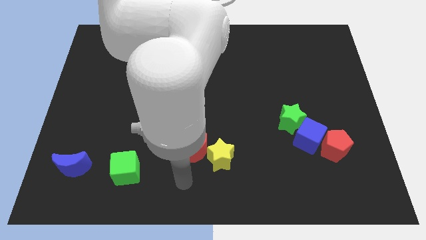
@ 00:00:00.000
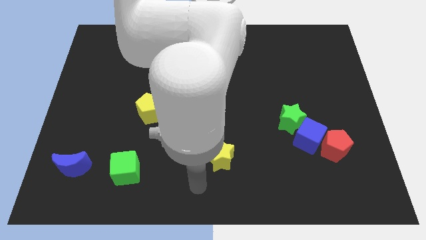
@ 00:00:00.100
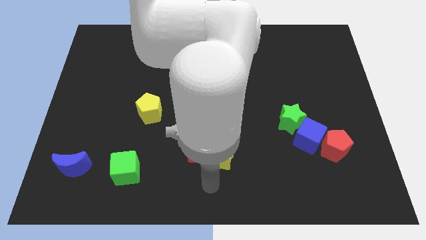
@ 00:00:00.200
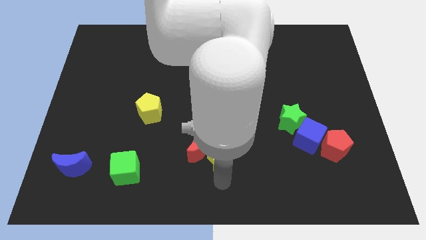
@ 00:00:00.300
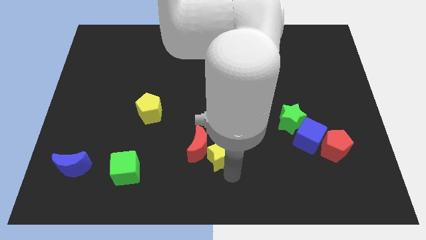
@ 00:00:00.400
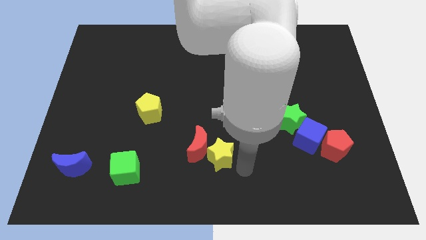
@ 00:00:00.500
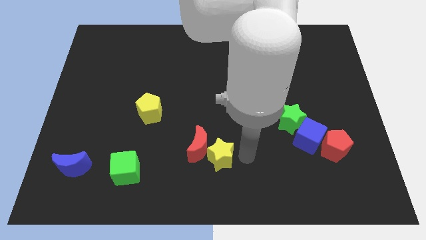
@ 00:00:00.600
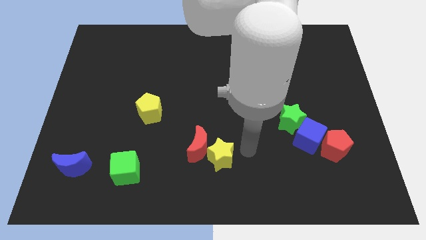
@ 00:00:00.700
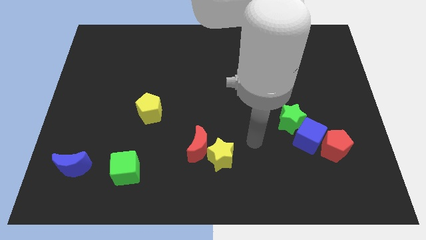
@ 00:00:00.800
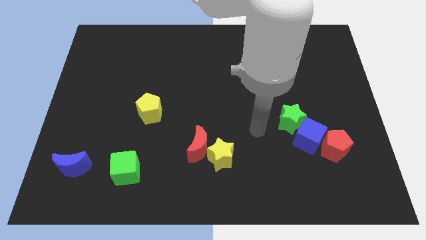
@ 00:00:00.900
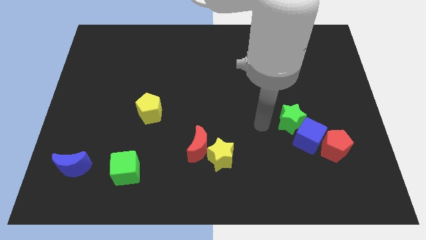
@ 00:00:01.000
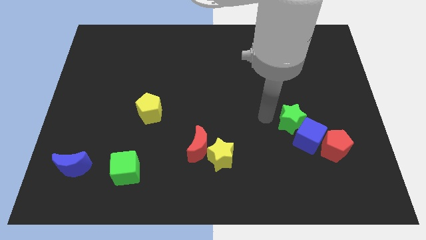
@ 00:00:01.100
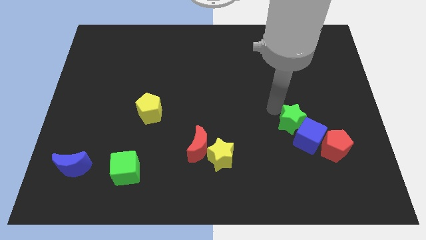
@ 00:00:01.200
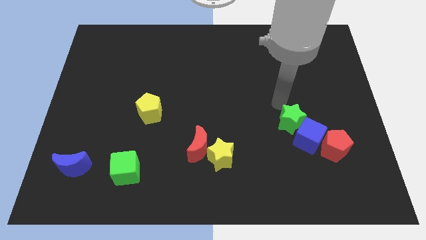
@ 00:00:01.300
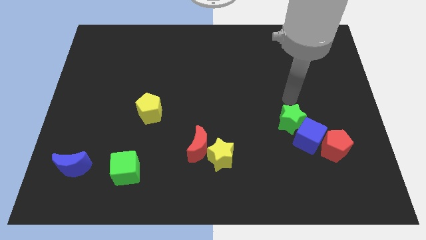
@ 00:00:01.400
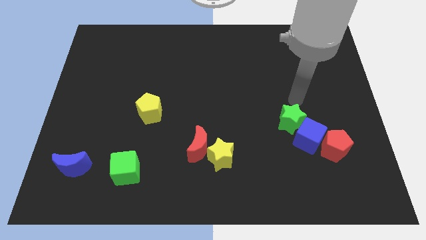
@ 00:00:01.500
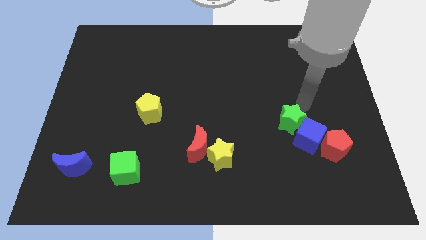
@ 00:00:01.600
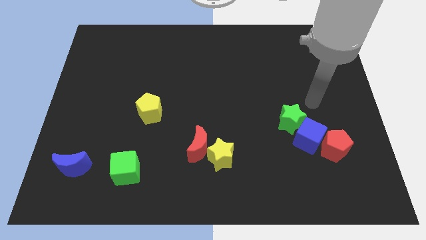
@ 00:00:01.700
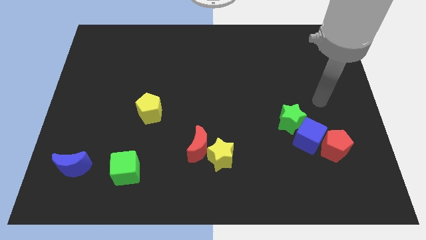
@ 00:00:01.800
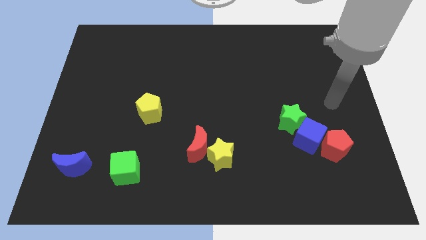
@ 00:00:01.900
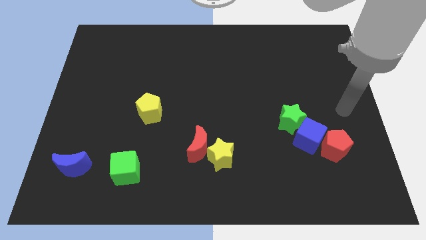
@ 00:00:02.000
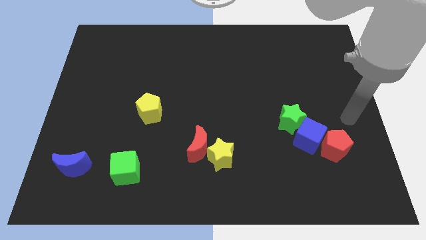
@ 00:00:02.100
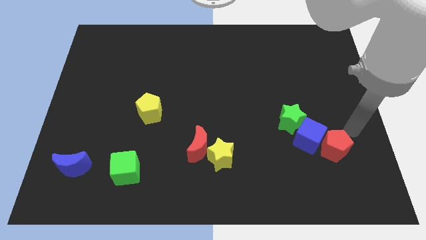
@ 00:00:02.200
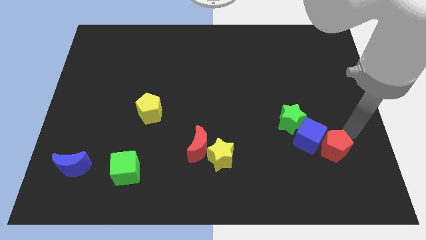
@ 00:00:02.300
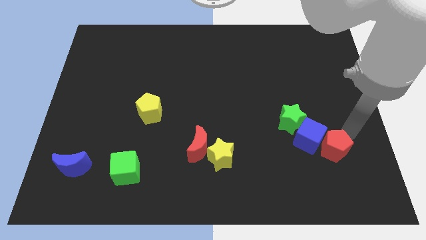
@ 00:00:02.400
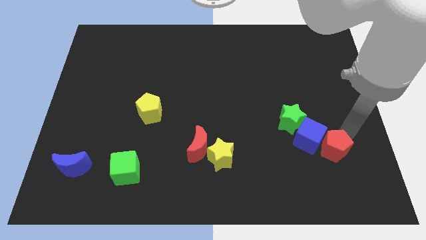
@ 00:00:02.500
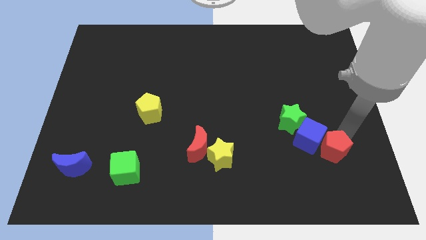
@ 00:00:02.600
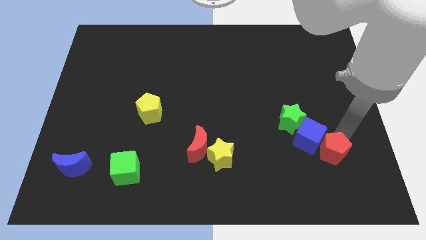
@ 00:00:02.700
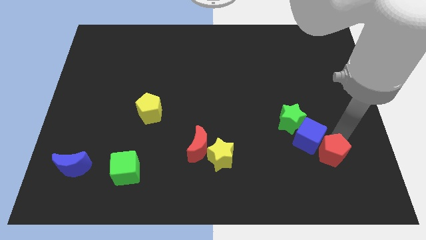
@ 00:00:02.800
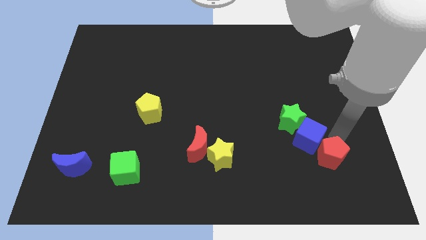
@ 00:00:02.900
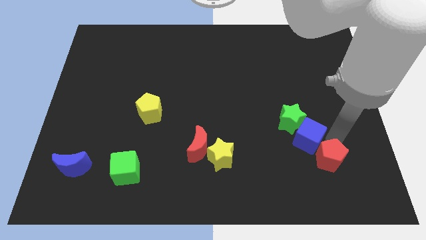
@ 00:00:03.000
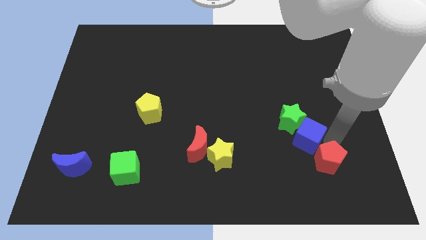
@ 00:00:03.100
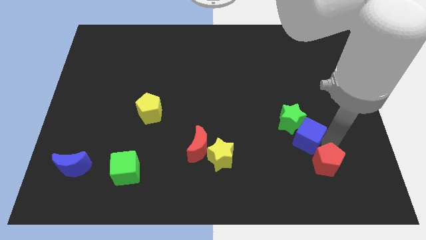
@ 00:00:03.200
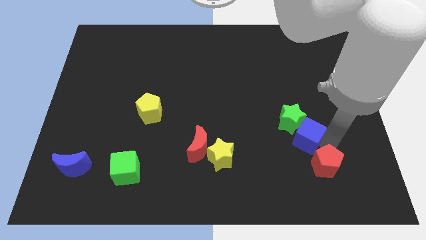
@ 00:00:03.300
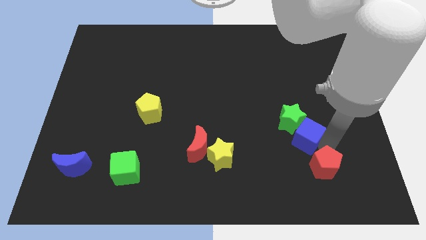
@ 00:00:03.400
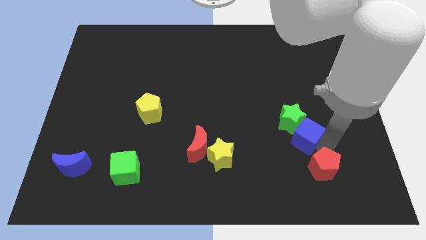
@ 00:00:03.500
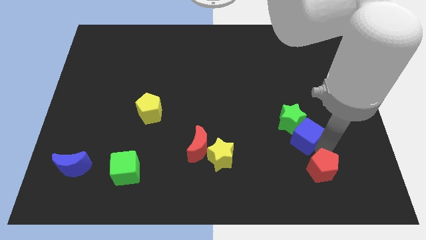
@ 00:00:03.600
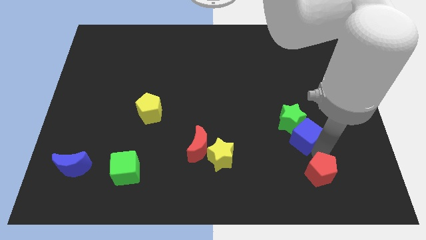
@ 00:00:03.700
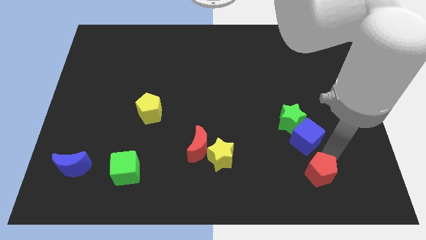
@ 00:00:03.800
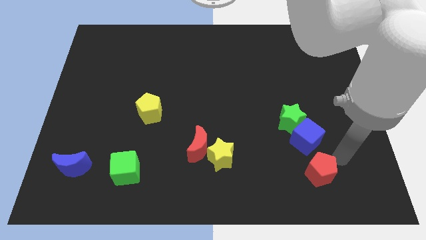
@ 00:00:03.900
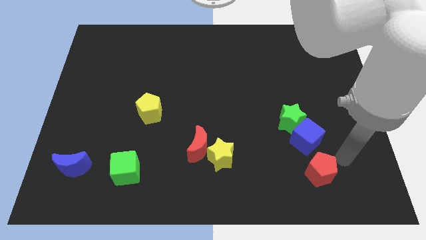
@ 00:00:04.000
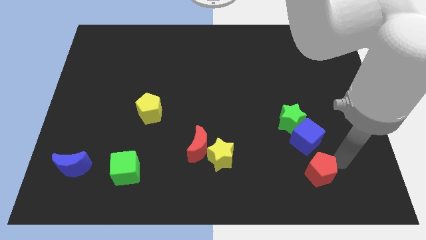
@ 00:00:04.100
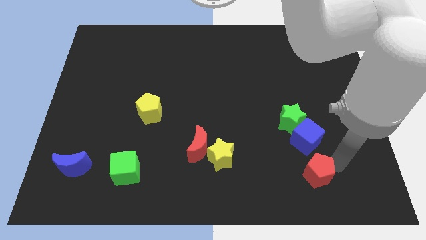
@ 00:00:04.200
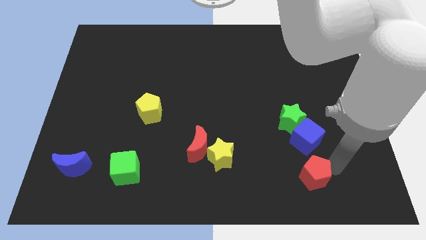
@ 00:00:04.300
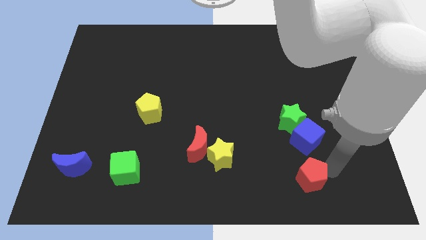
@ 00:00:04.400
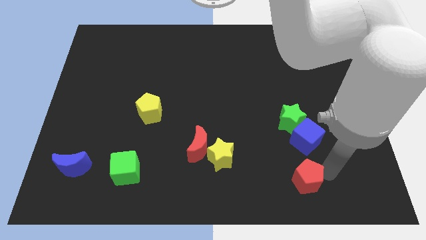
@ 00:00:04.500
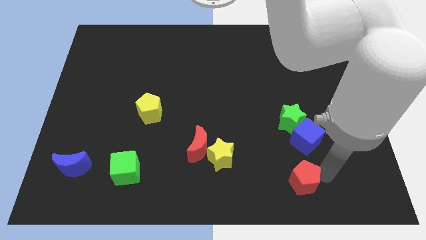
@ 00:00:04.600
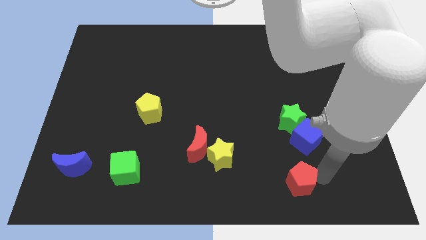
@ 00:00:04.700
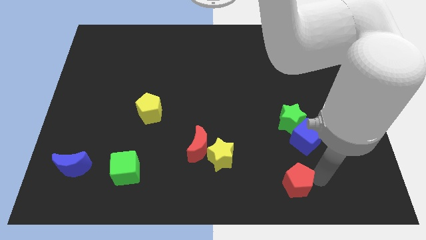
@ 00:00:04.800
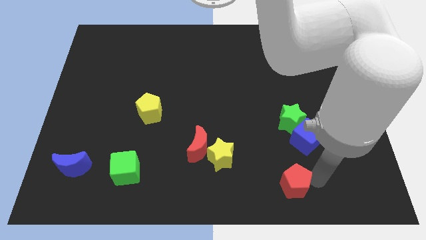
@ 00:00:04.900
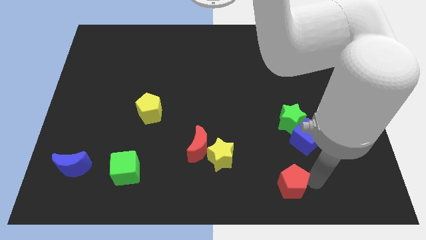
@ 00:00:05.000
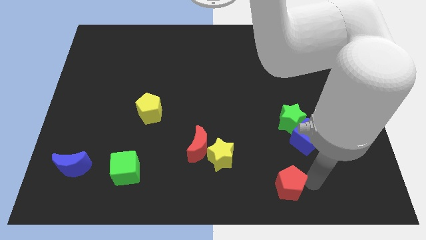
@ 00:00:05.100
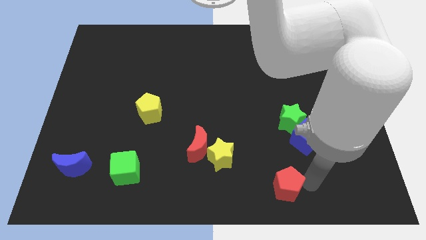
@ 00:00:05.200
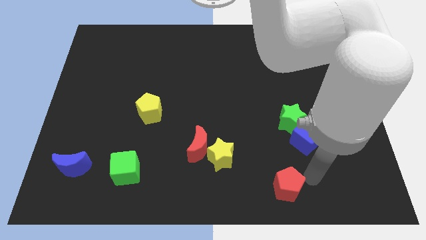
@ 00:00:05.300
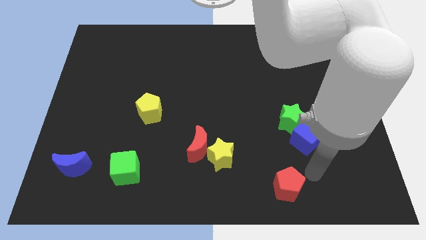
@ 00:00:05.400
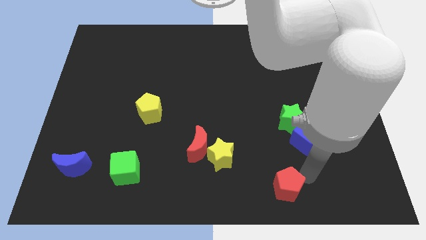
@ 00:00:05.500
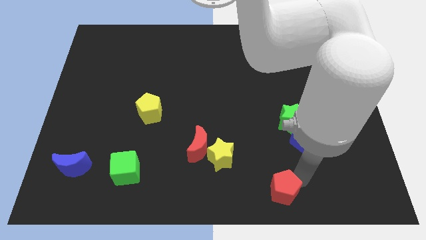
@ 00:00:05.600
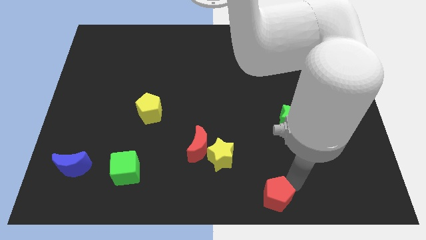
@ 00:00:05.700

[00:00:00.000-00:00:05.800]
move the red pentagon to the bottom side
